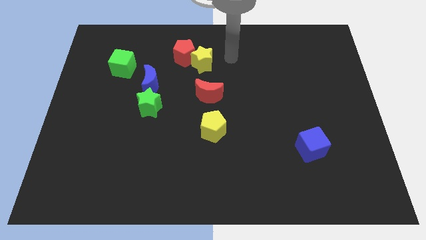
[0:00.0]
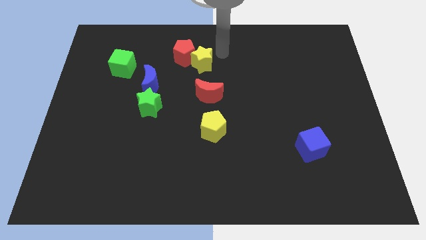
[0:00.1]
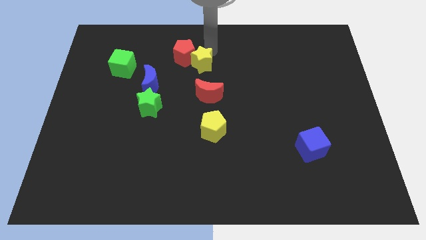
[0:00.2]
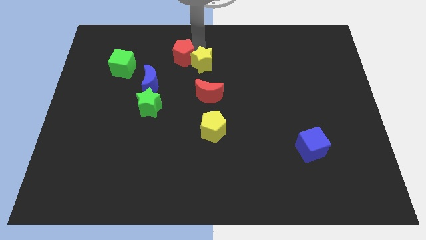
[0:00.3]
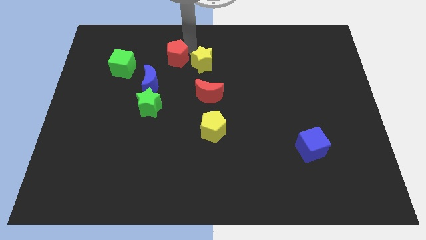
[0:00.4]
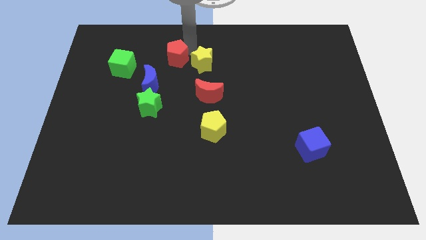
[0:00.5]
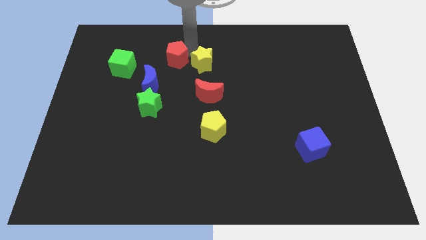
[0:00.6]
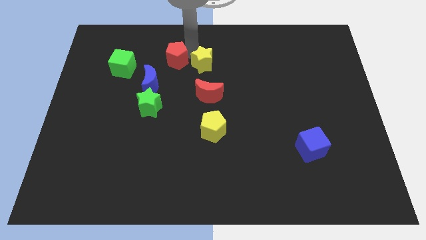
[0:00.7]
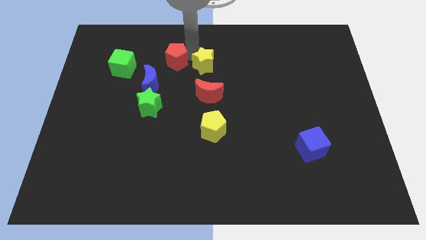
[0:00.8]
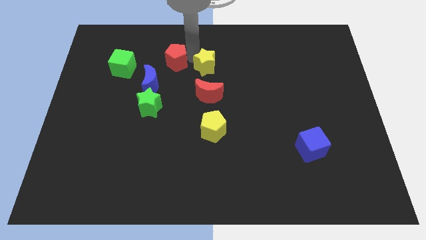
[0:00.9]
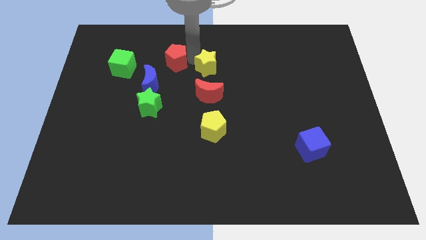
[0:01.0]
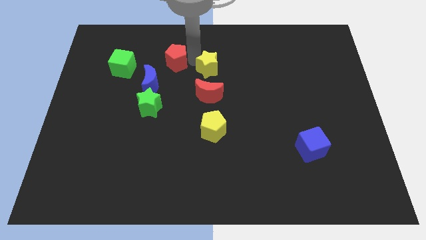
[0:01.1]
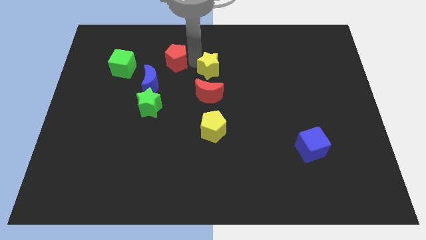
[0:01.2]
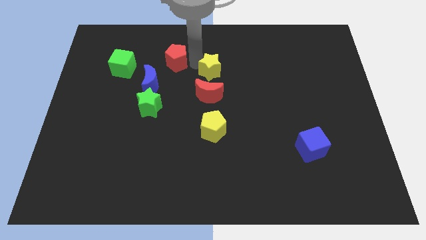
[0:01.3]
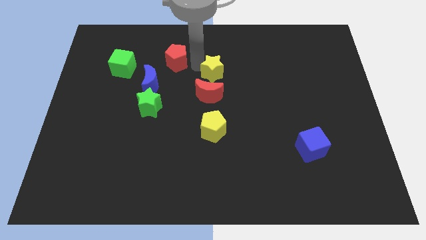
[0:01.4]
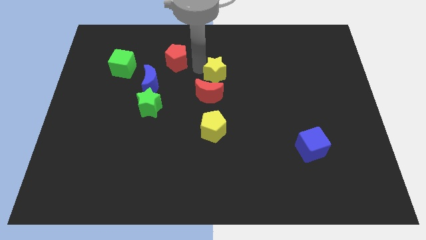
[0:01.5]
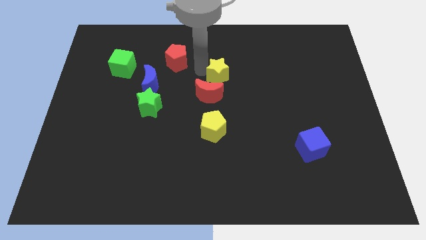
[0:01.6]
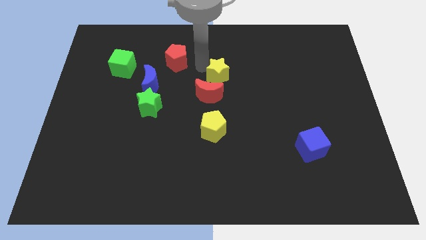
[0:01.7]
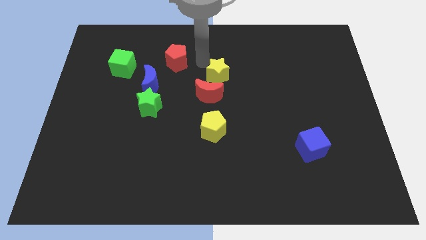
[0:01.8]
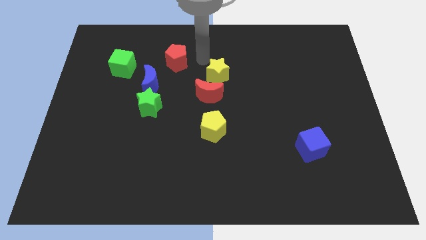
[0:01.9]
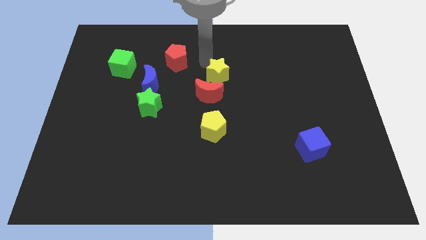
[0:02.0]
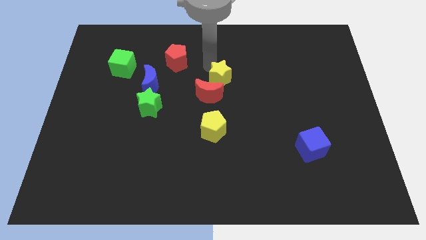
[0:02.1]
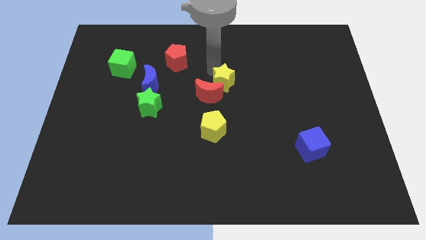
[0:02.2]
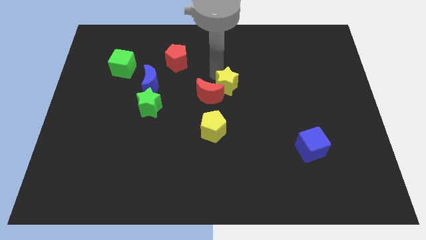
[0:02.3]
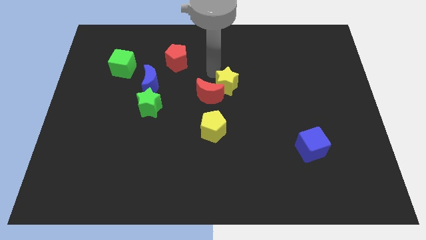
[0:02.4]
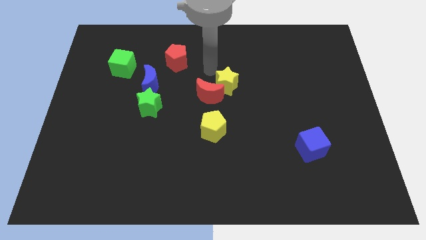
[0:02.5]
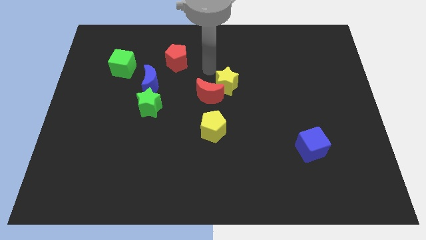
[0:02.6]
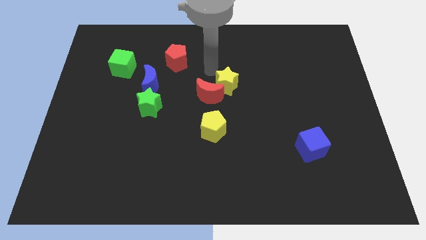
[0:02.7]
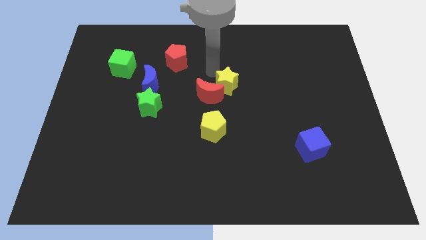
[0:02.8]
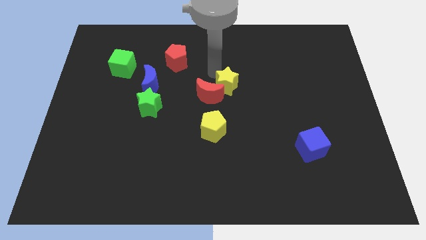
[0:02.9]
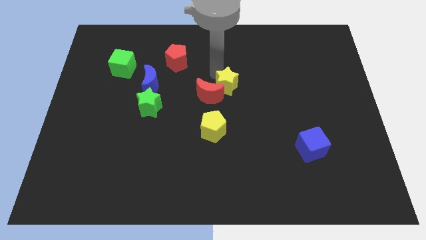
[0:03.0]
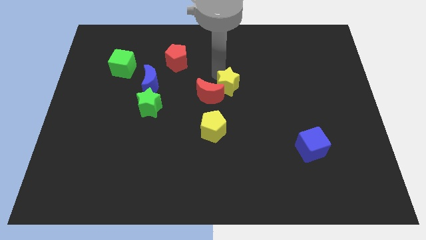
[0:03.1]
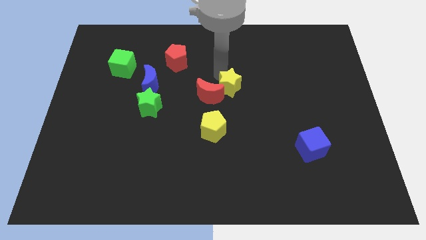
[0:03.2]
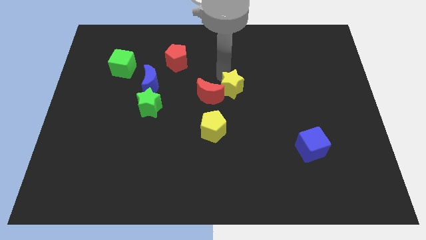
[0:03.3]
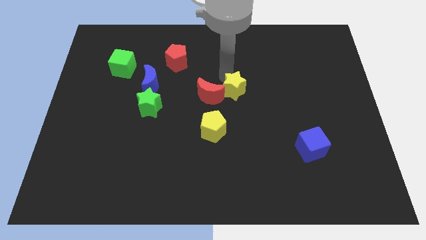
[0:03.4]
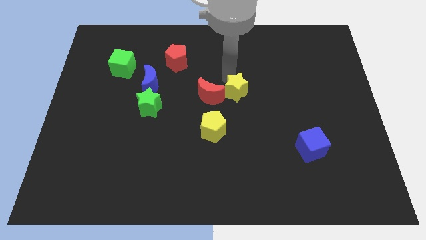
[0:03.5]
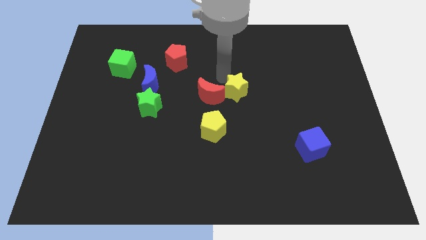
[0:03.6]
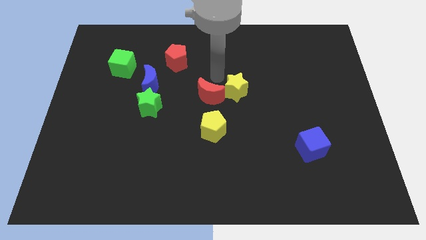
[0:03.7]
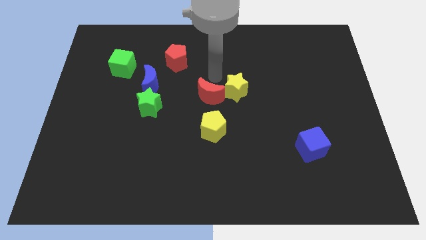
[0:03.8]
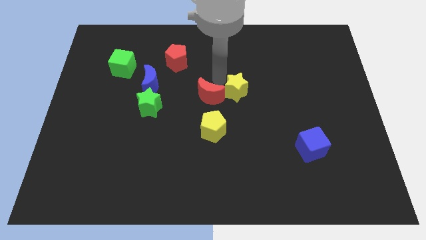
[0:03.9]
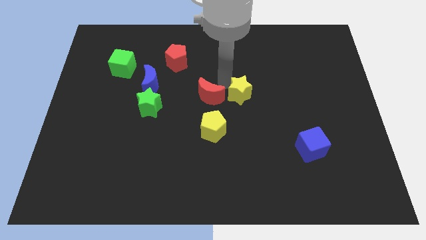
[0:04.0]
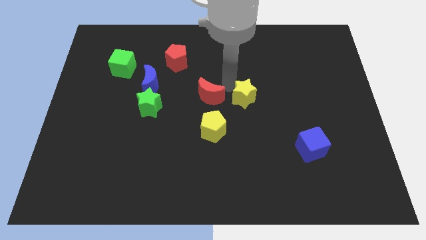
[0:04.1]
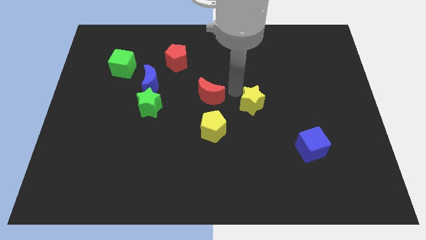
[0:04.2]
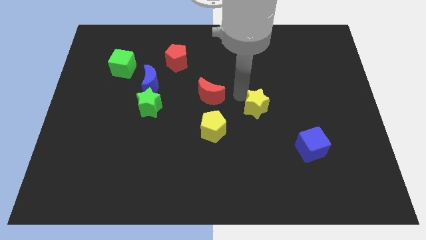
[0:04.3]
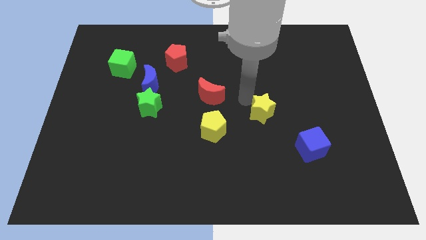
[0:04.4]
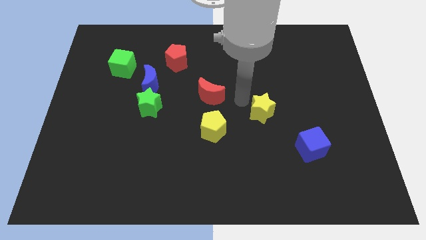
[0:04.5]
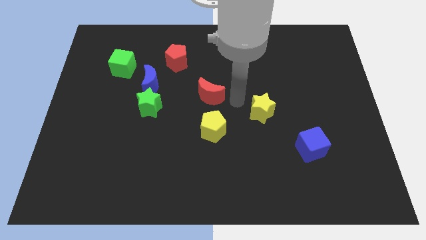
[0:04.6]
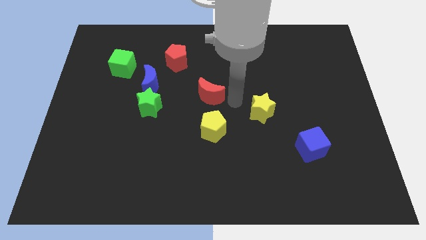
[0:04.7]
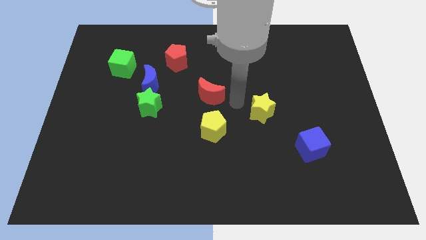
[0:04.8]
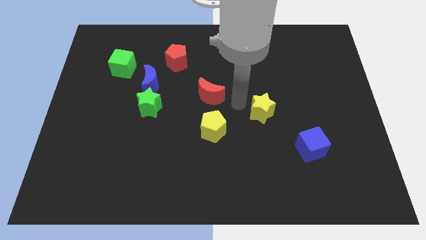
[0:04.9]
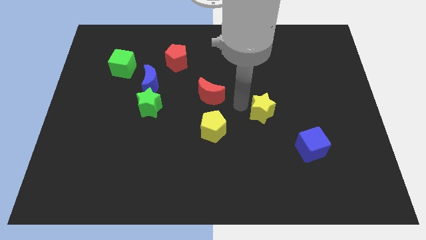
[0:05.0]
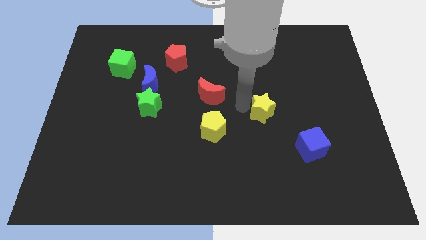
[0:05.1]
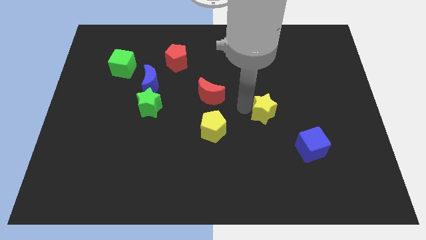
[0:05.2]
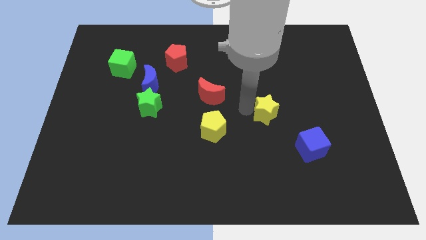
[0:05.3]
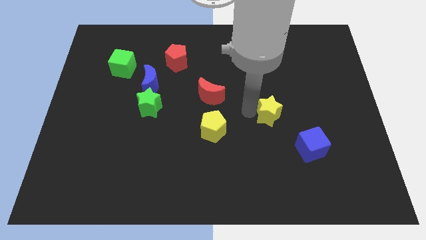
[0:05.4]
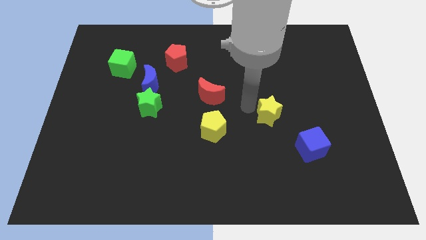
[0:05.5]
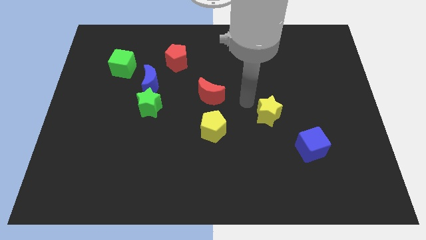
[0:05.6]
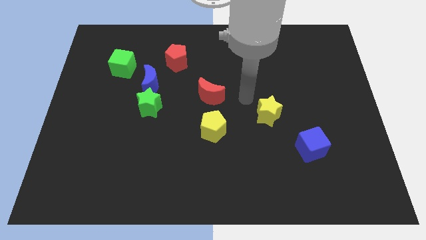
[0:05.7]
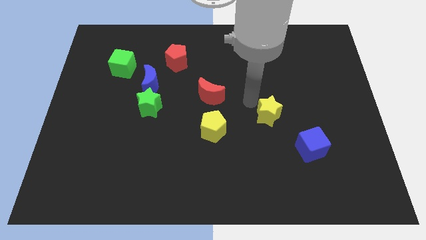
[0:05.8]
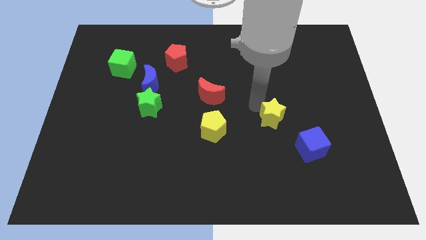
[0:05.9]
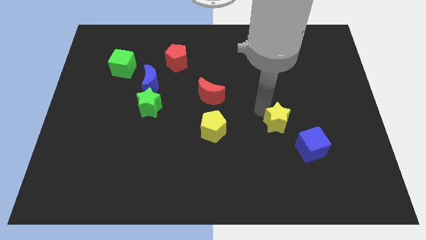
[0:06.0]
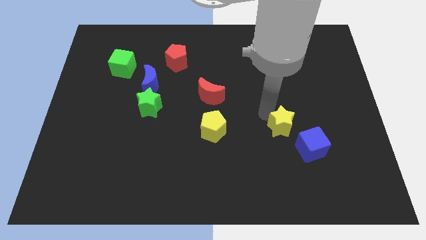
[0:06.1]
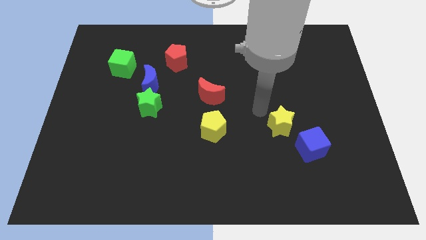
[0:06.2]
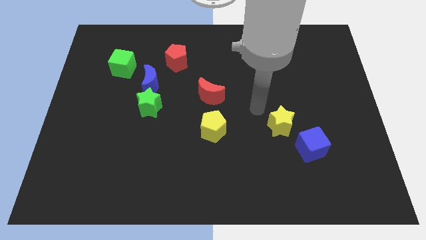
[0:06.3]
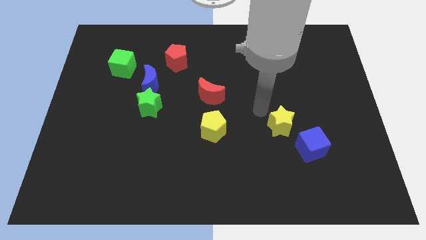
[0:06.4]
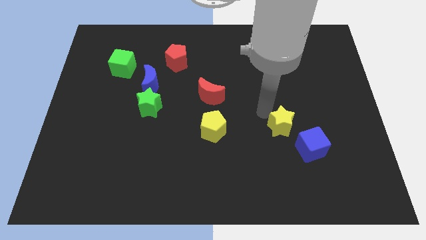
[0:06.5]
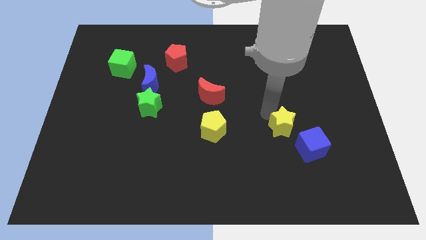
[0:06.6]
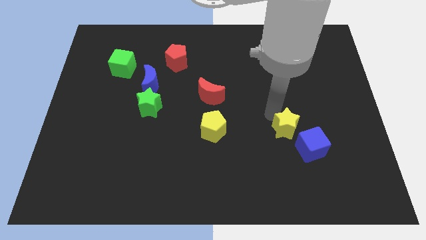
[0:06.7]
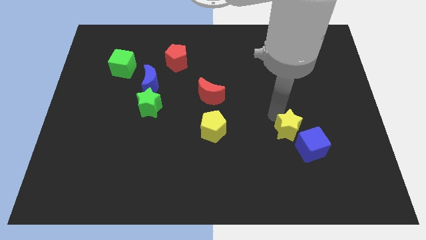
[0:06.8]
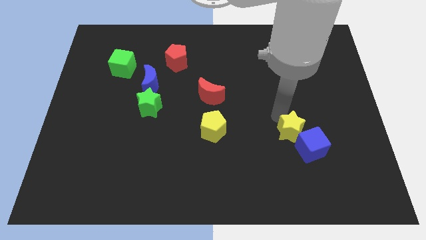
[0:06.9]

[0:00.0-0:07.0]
push the yellow star next to the blue cube
